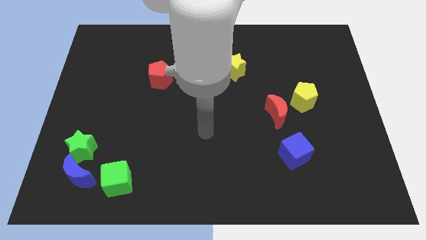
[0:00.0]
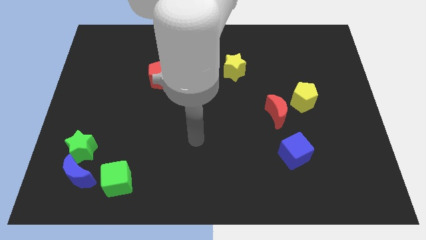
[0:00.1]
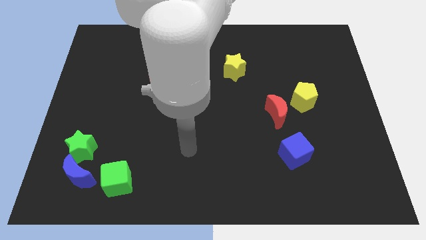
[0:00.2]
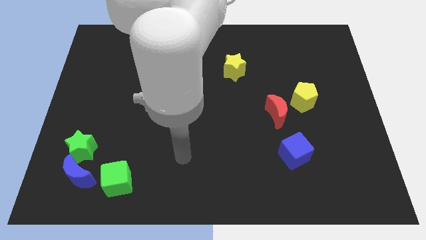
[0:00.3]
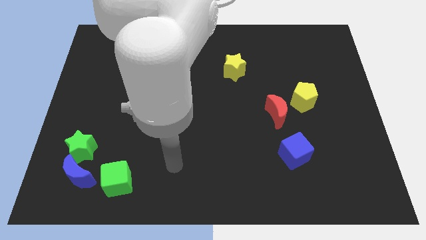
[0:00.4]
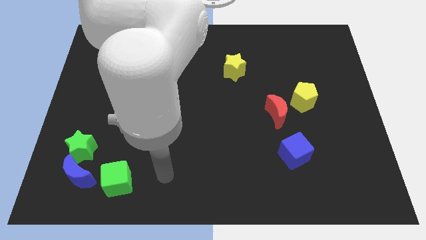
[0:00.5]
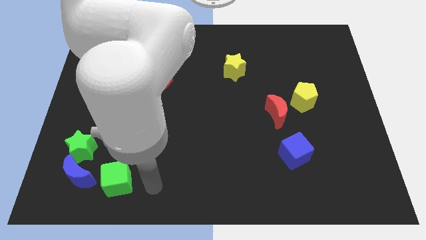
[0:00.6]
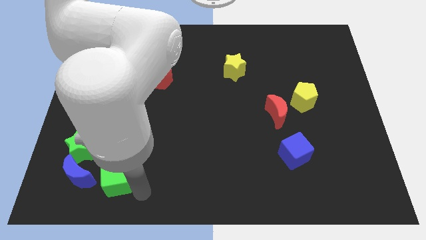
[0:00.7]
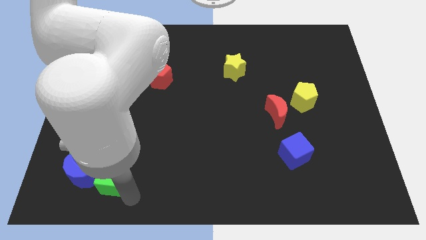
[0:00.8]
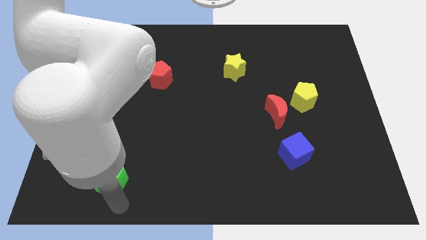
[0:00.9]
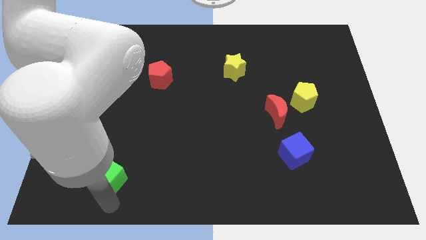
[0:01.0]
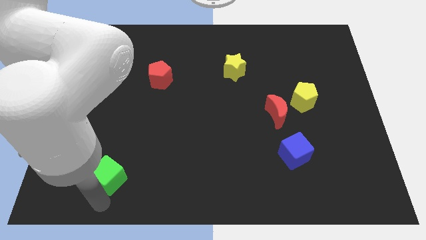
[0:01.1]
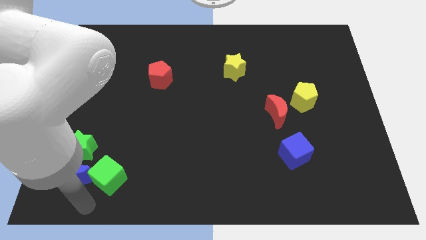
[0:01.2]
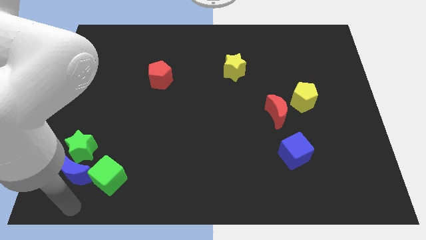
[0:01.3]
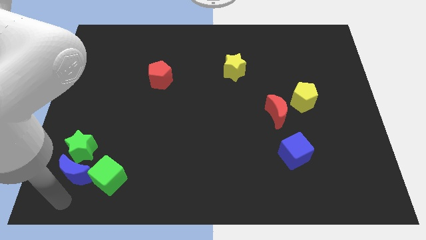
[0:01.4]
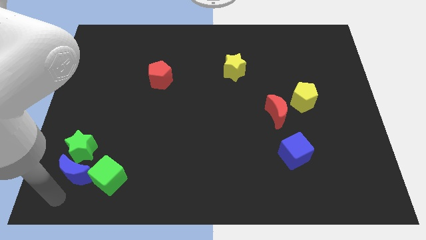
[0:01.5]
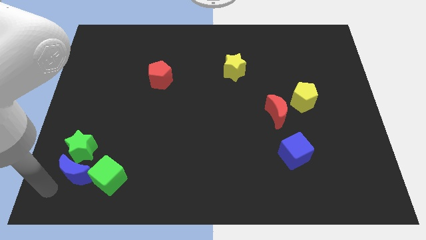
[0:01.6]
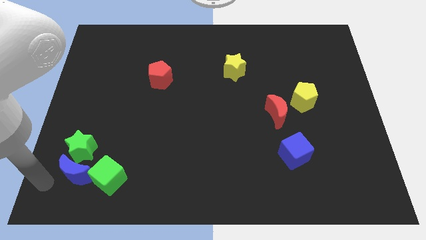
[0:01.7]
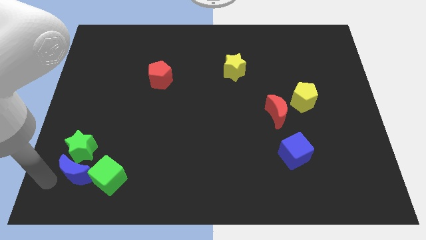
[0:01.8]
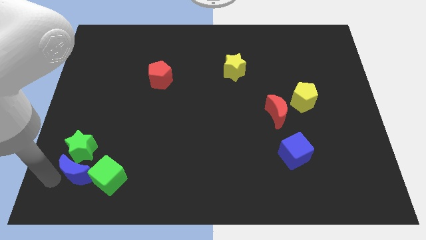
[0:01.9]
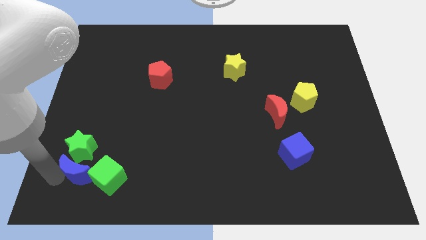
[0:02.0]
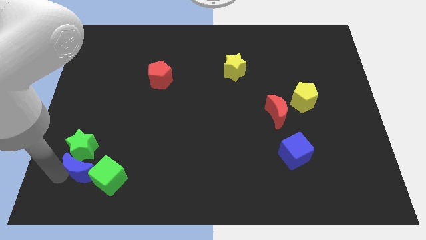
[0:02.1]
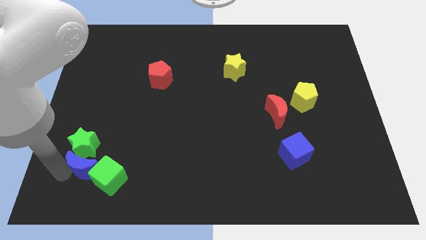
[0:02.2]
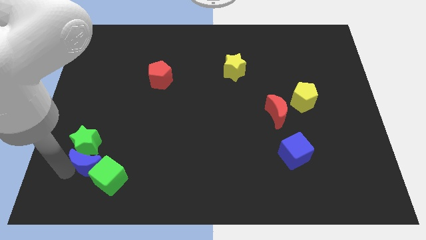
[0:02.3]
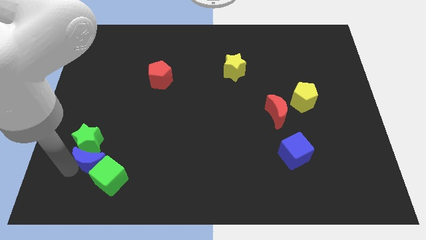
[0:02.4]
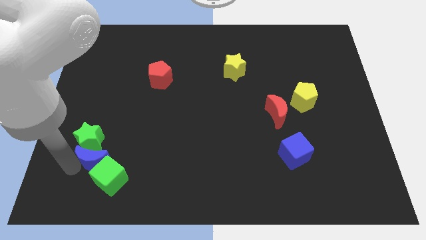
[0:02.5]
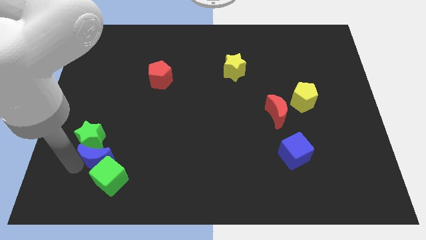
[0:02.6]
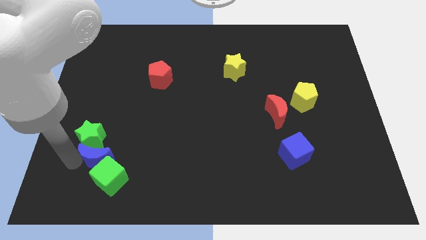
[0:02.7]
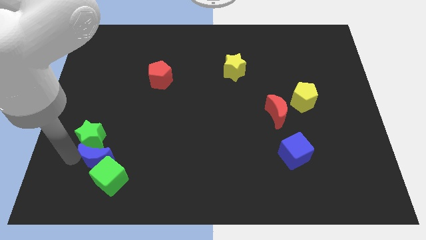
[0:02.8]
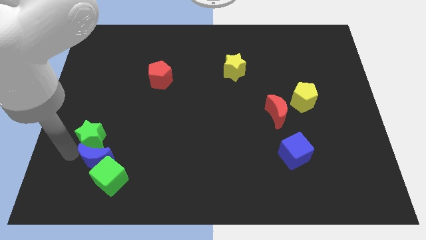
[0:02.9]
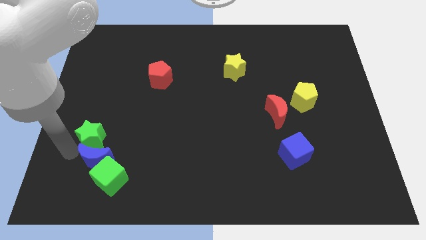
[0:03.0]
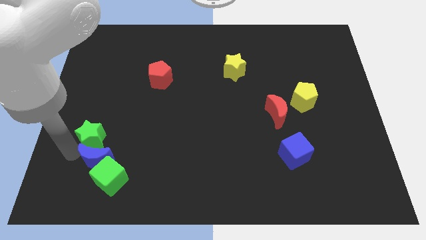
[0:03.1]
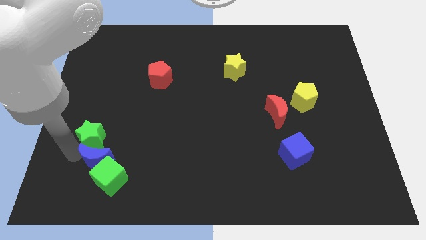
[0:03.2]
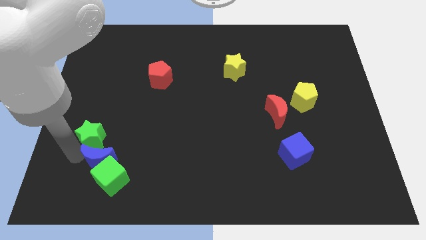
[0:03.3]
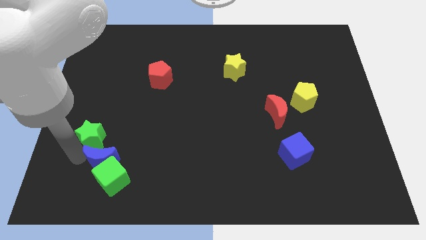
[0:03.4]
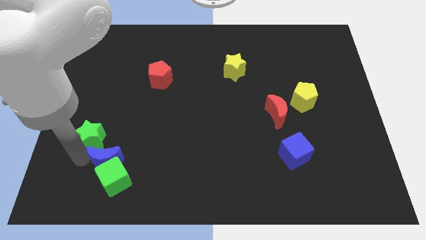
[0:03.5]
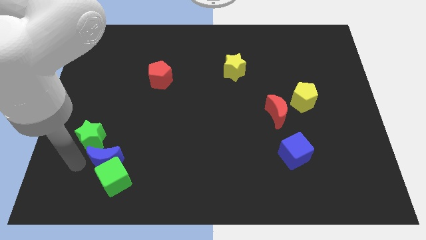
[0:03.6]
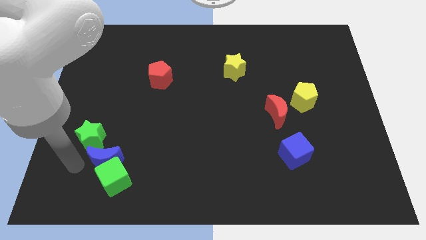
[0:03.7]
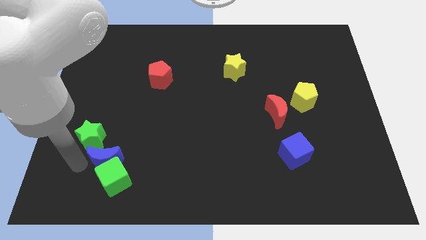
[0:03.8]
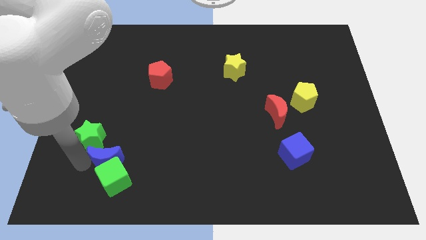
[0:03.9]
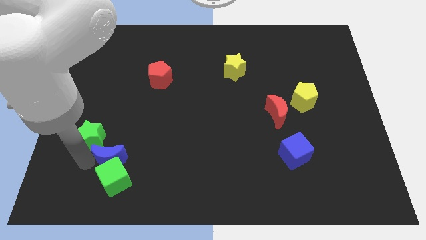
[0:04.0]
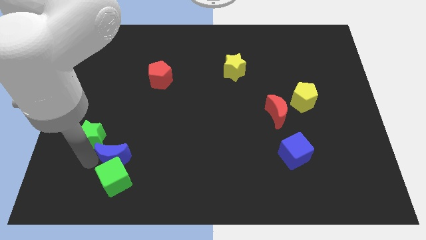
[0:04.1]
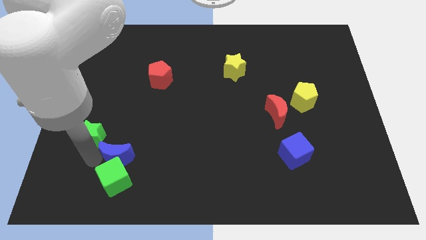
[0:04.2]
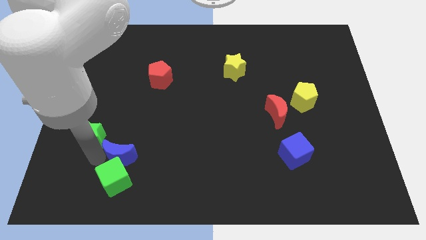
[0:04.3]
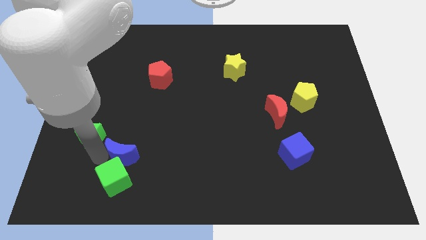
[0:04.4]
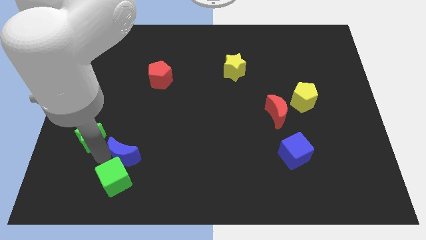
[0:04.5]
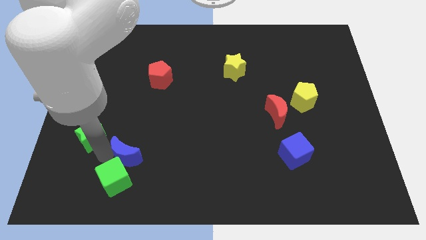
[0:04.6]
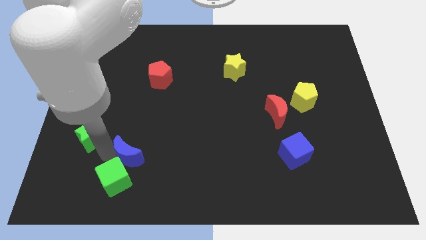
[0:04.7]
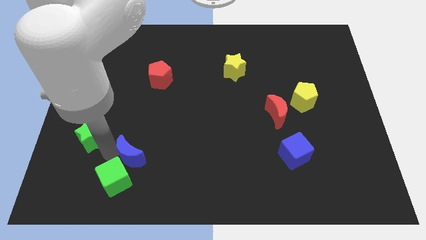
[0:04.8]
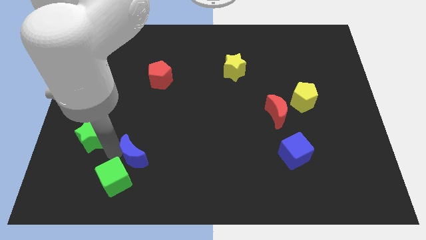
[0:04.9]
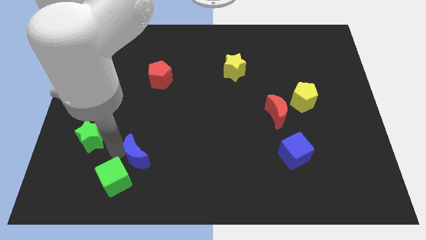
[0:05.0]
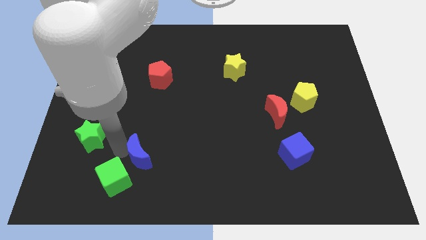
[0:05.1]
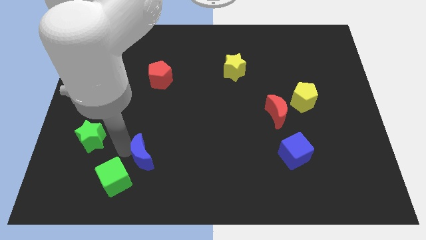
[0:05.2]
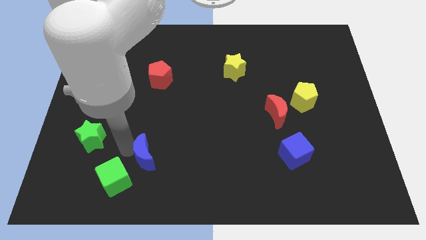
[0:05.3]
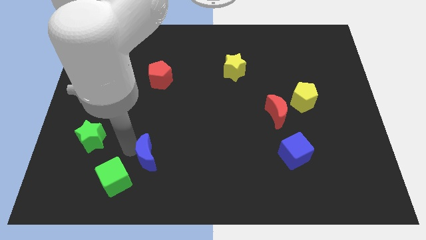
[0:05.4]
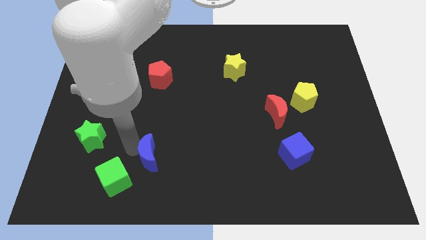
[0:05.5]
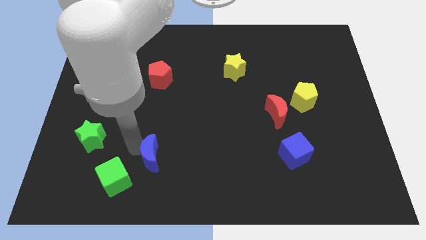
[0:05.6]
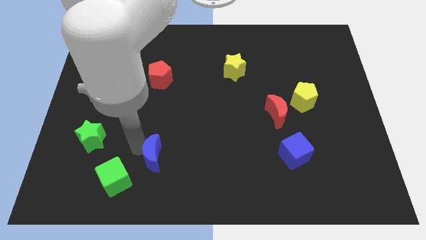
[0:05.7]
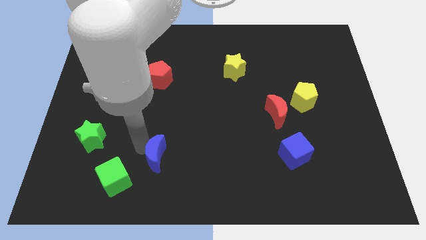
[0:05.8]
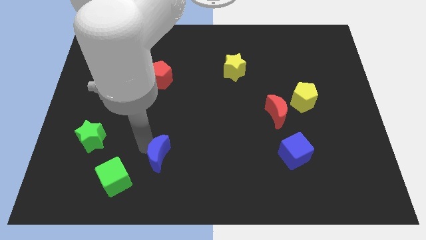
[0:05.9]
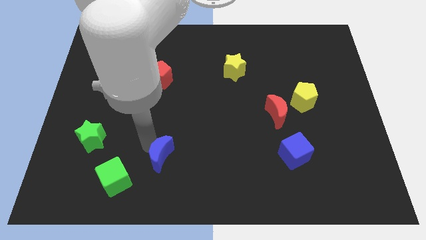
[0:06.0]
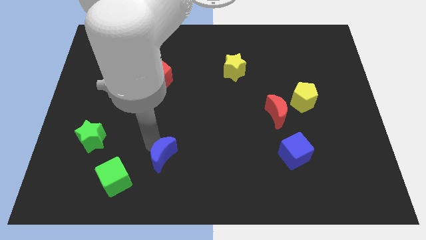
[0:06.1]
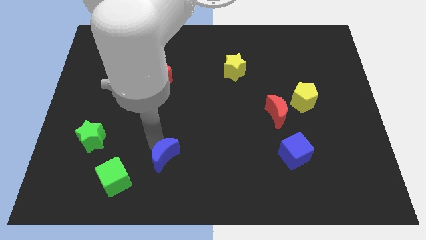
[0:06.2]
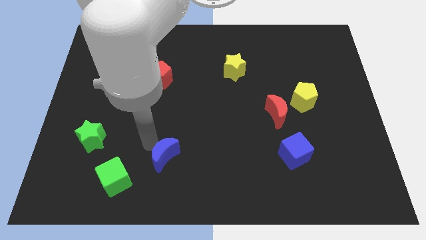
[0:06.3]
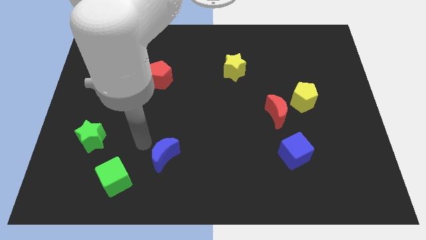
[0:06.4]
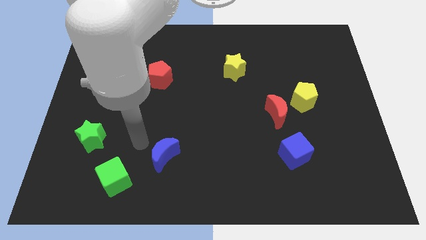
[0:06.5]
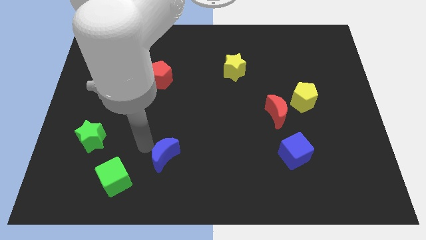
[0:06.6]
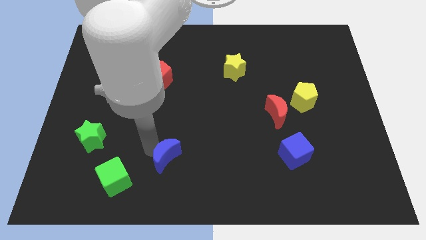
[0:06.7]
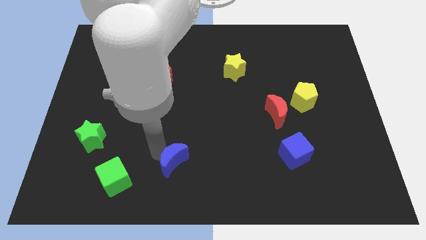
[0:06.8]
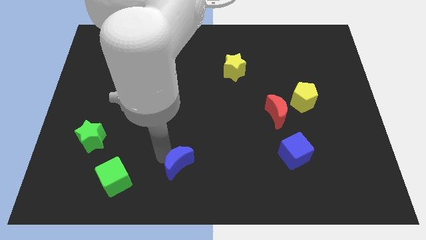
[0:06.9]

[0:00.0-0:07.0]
slide the blue moon to the right

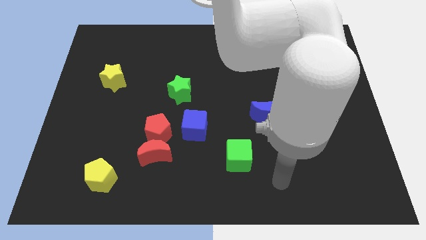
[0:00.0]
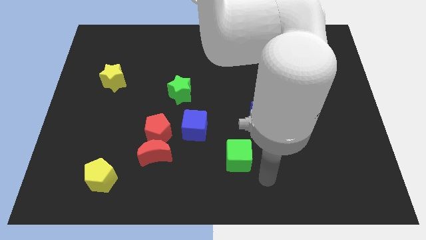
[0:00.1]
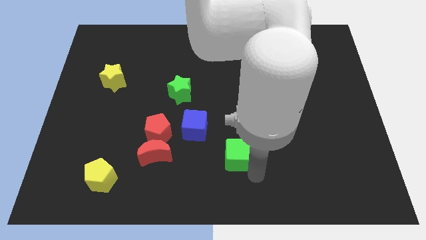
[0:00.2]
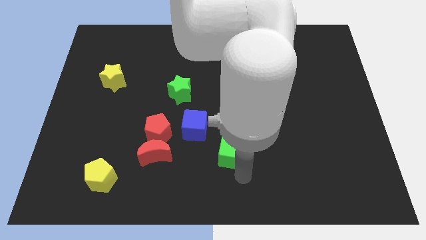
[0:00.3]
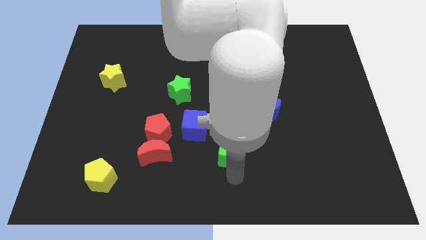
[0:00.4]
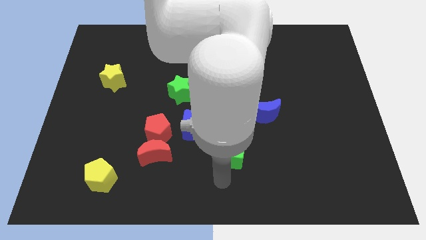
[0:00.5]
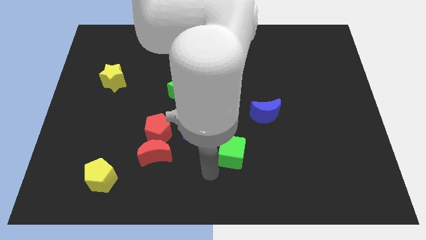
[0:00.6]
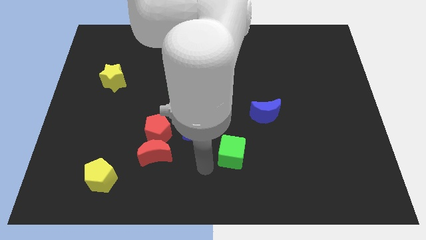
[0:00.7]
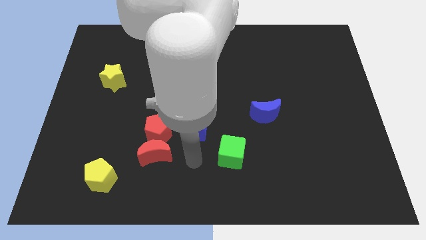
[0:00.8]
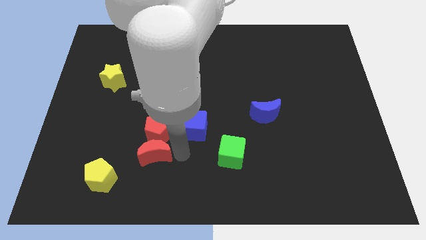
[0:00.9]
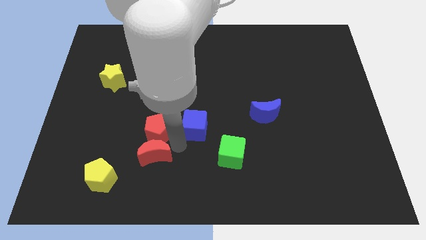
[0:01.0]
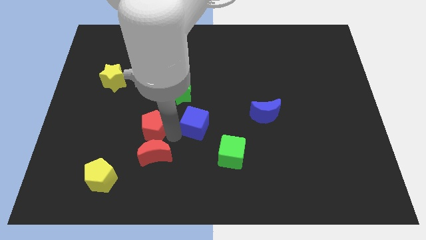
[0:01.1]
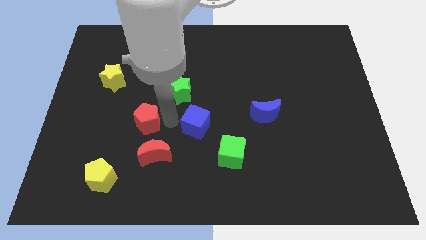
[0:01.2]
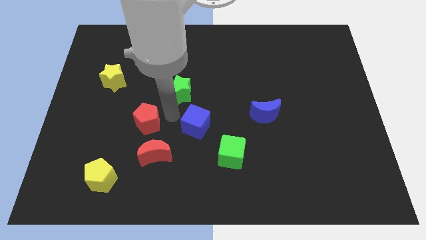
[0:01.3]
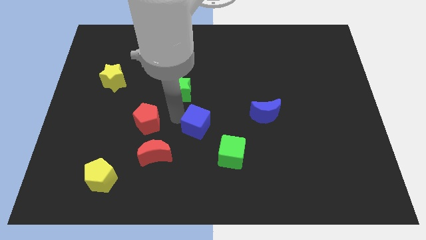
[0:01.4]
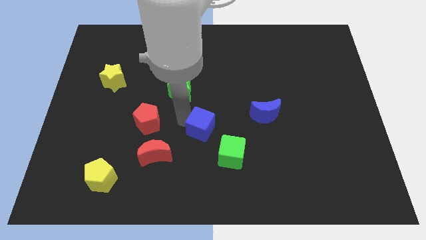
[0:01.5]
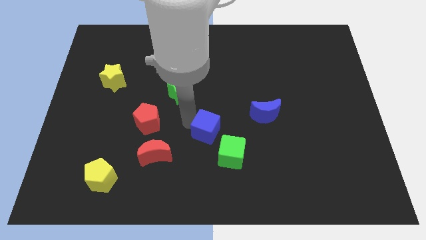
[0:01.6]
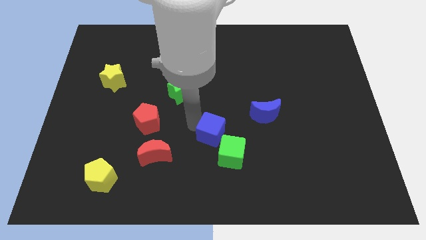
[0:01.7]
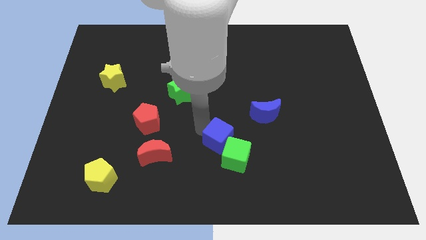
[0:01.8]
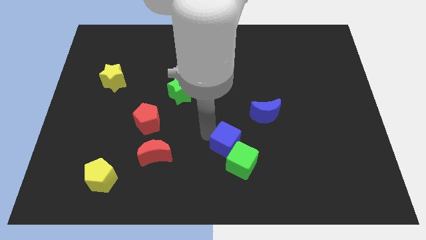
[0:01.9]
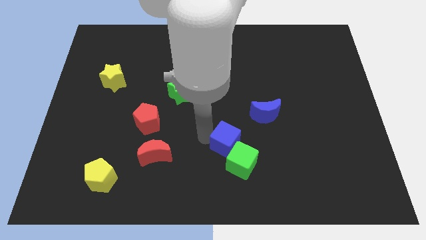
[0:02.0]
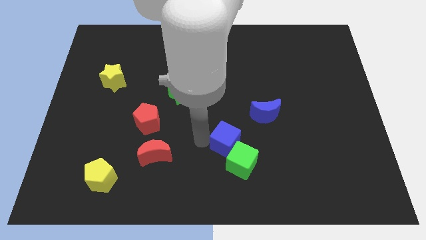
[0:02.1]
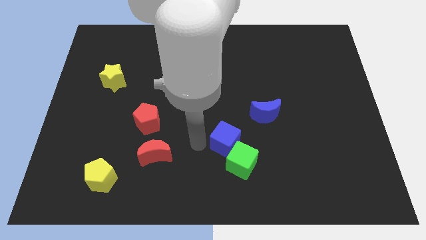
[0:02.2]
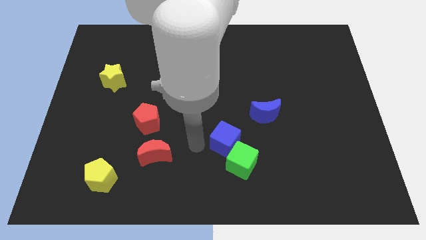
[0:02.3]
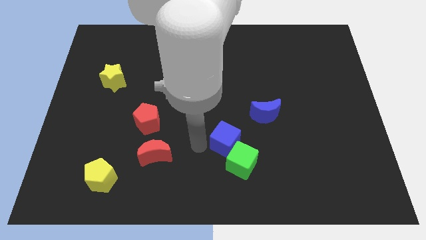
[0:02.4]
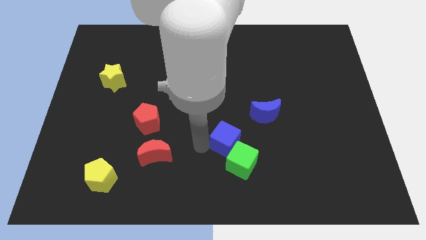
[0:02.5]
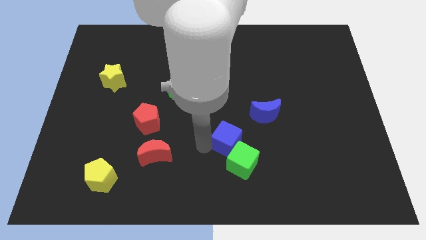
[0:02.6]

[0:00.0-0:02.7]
slightly push the blue cube right
